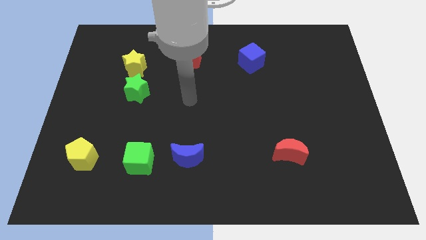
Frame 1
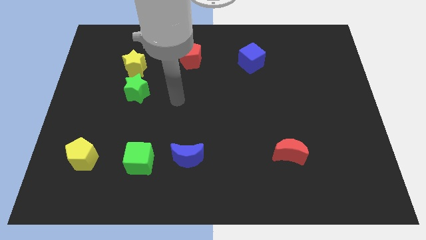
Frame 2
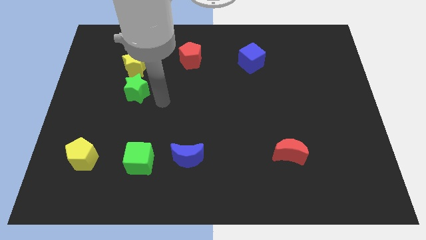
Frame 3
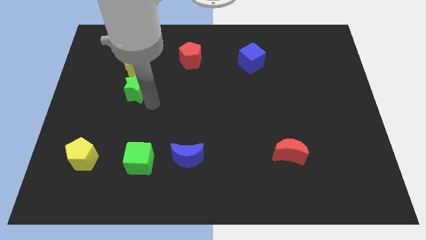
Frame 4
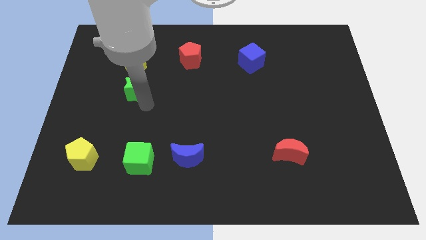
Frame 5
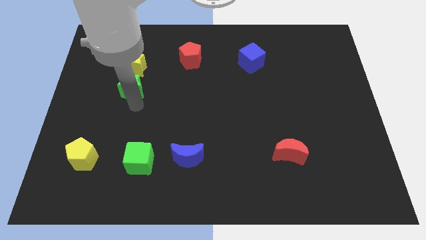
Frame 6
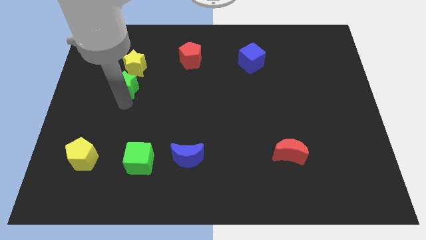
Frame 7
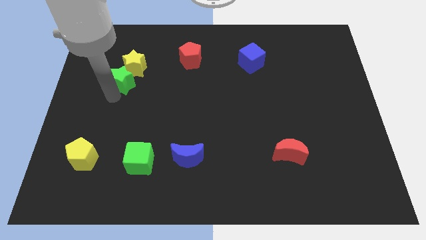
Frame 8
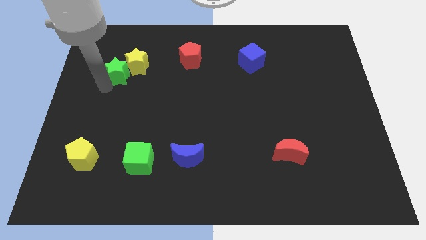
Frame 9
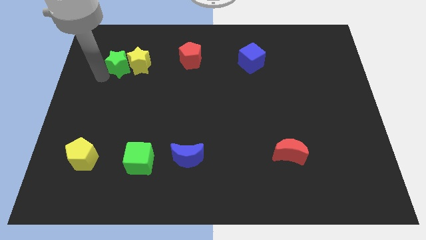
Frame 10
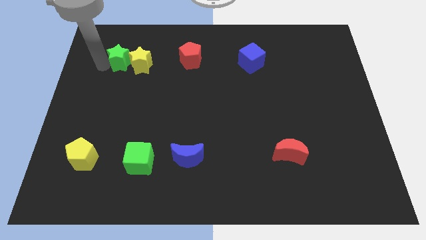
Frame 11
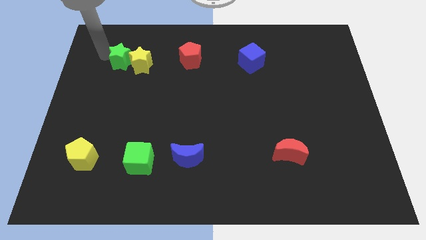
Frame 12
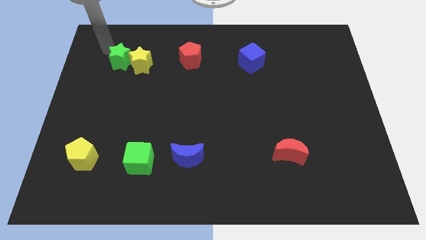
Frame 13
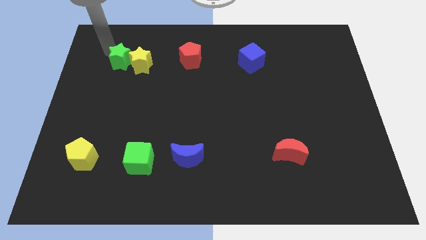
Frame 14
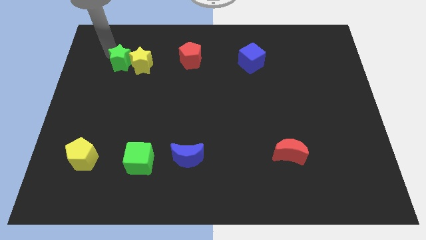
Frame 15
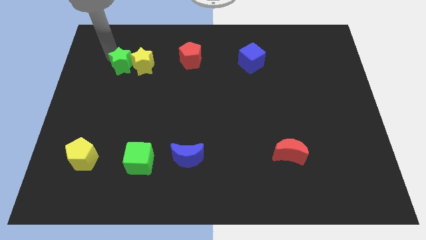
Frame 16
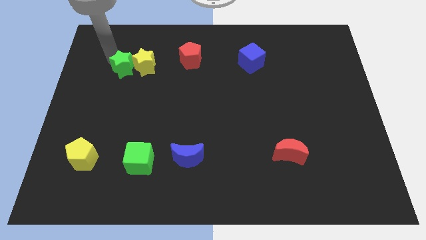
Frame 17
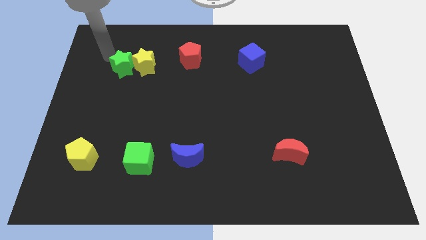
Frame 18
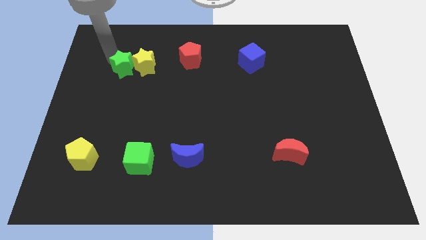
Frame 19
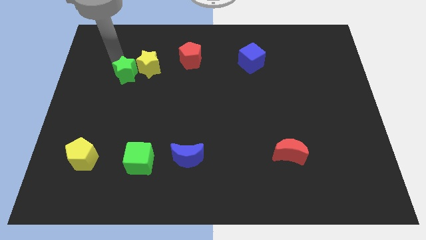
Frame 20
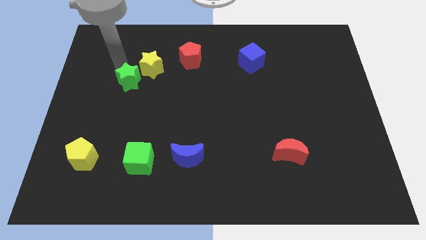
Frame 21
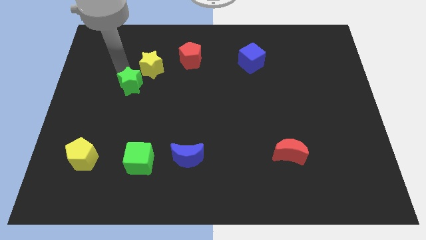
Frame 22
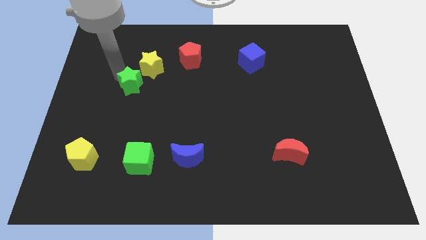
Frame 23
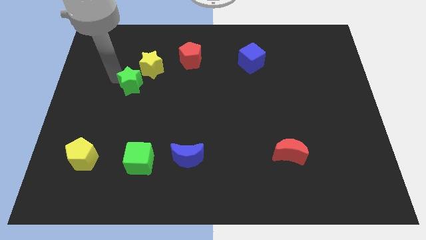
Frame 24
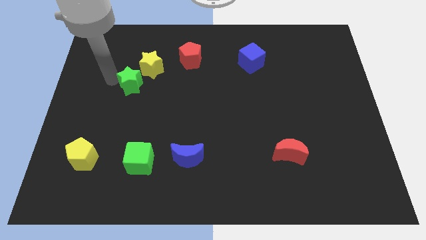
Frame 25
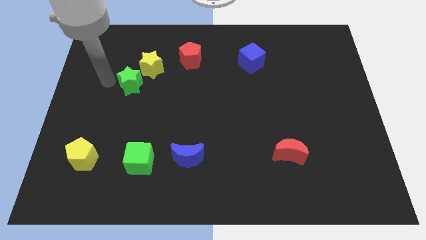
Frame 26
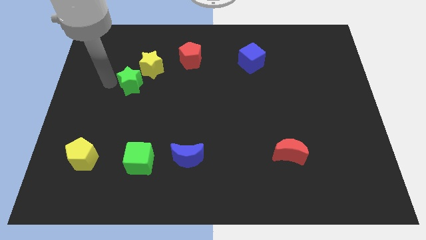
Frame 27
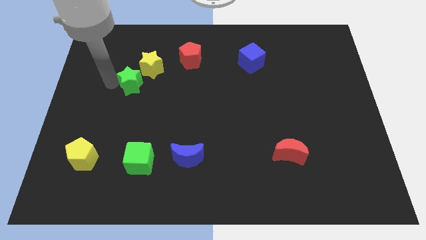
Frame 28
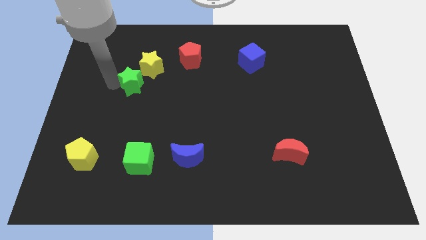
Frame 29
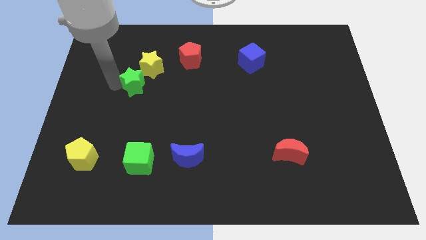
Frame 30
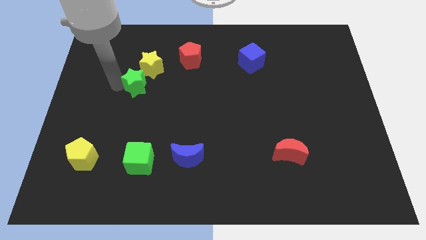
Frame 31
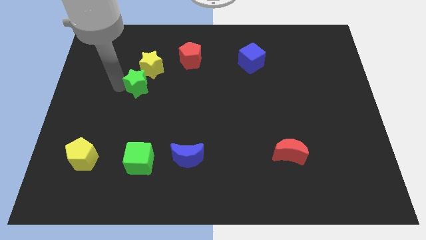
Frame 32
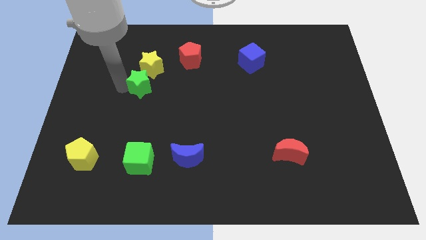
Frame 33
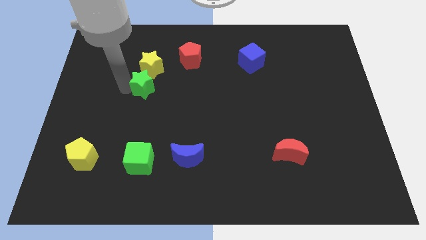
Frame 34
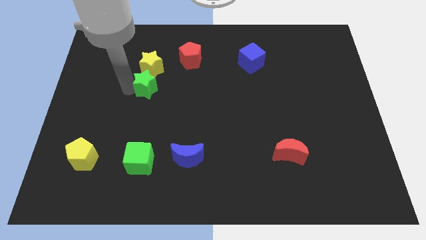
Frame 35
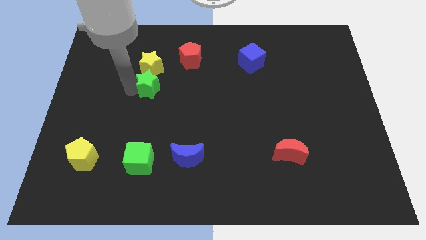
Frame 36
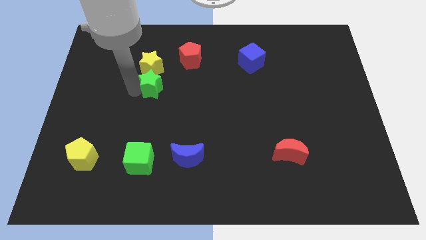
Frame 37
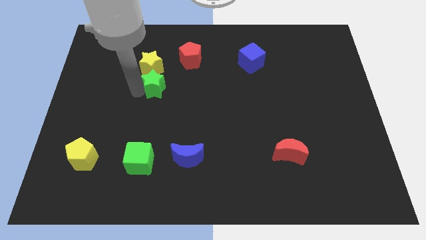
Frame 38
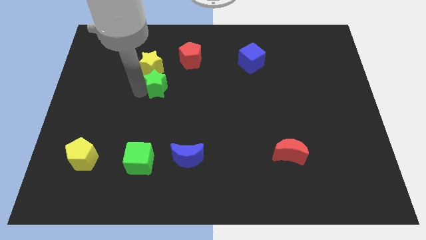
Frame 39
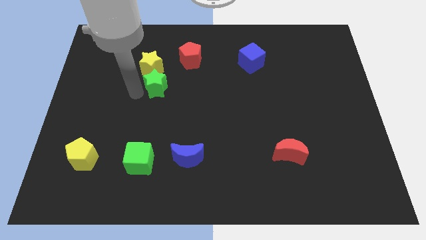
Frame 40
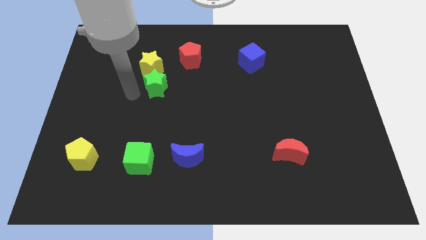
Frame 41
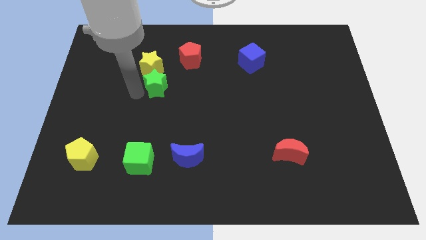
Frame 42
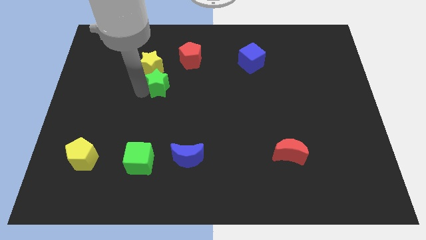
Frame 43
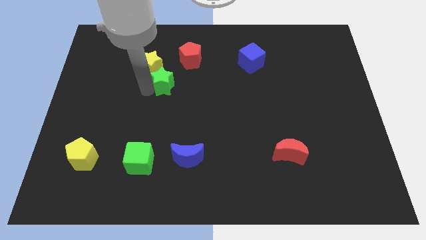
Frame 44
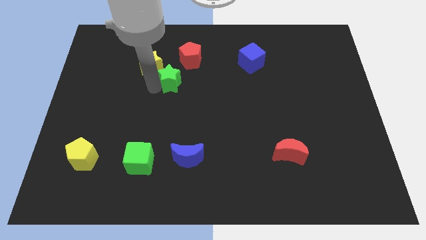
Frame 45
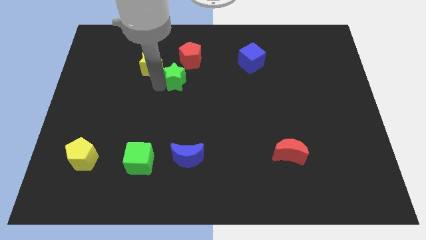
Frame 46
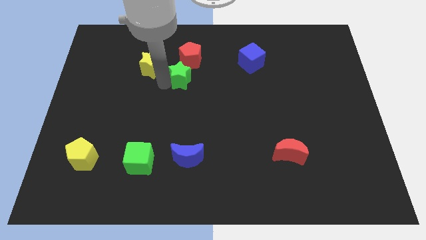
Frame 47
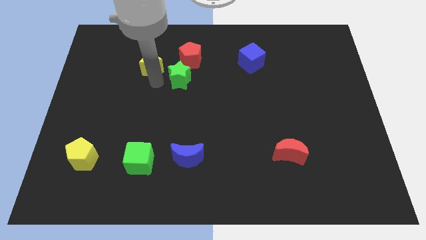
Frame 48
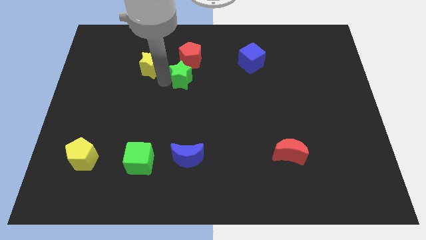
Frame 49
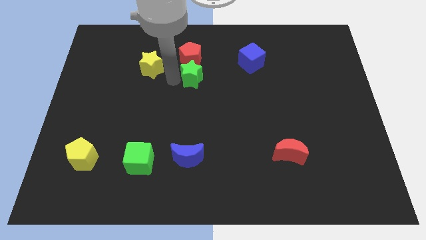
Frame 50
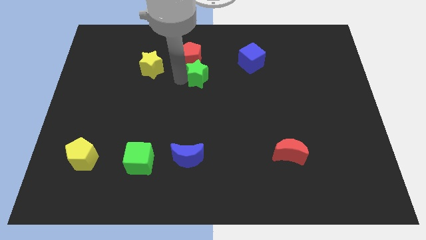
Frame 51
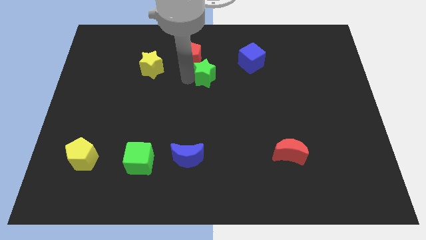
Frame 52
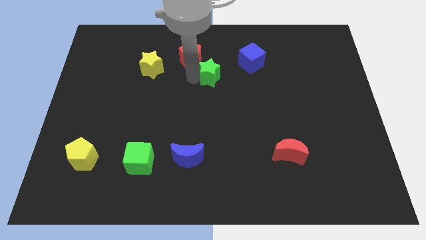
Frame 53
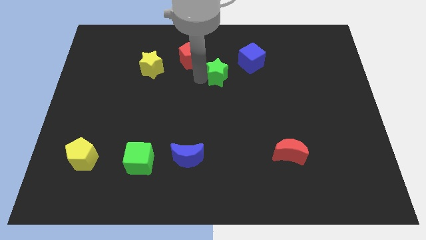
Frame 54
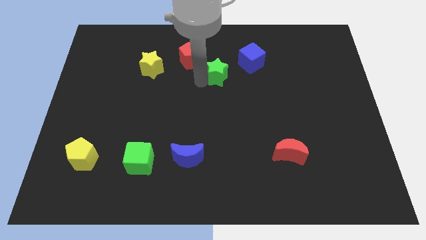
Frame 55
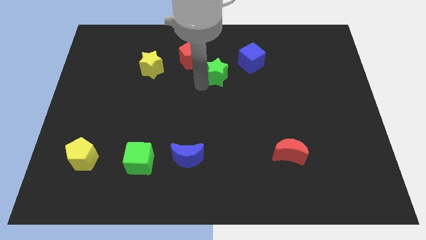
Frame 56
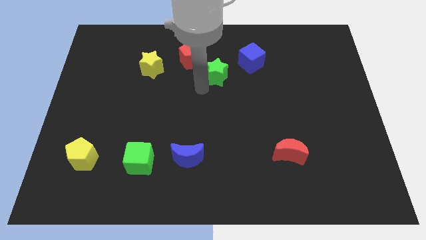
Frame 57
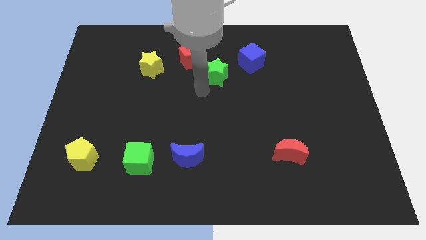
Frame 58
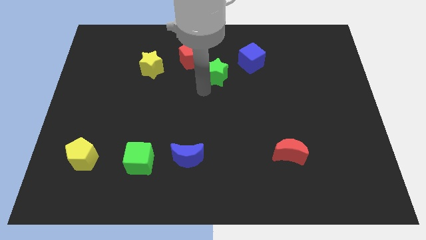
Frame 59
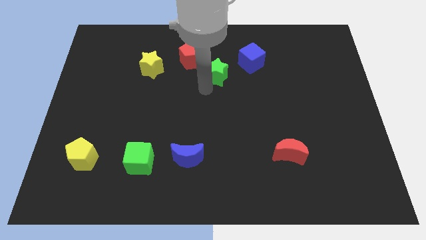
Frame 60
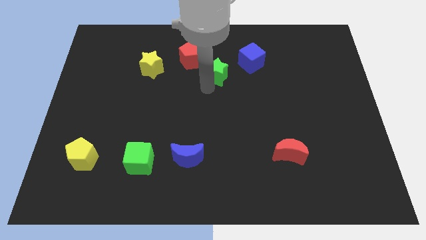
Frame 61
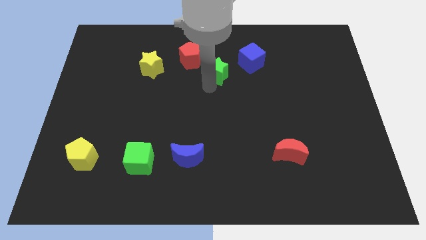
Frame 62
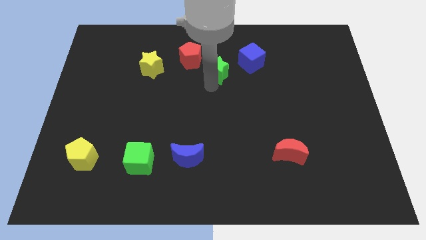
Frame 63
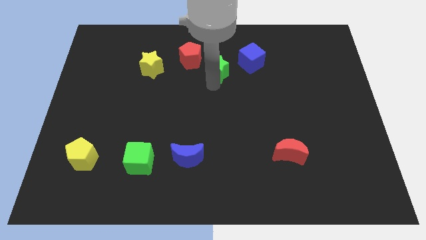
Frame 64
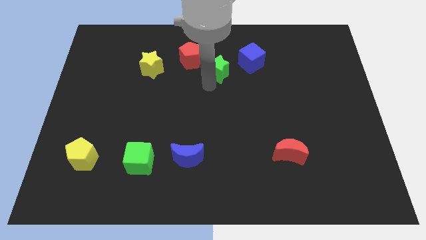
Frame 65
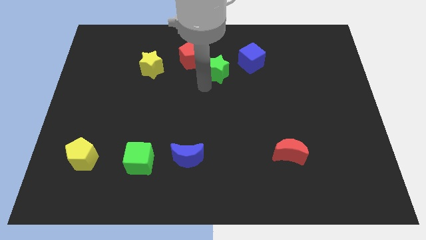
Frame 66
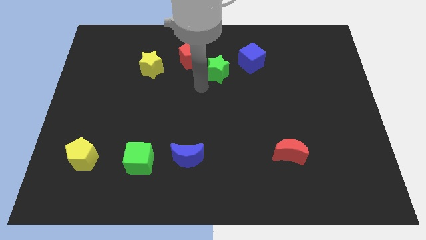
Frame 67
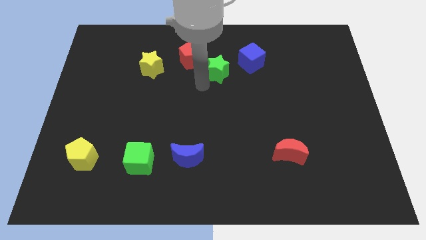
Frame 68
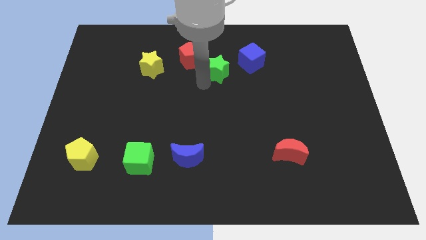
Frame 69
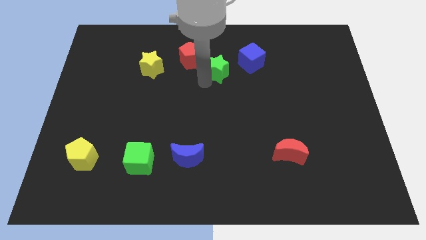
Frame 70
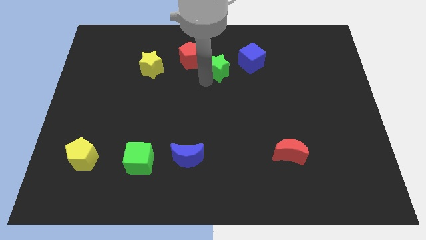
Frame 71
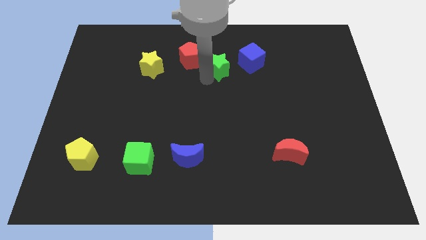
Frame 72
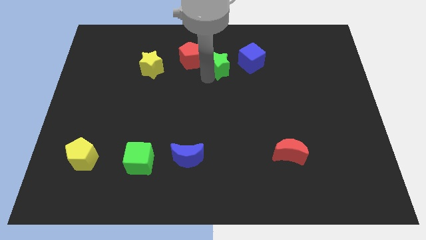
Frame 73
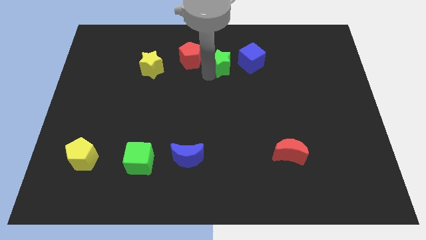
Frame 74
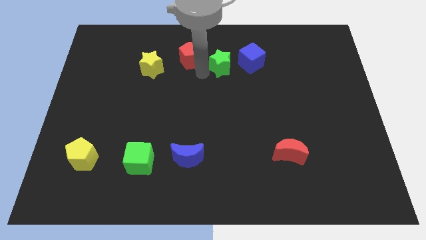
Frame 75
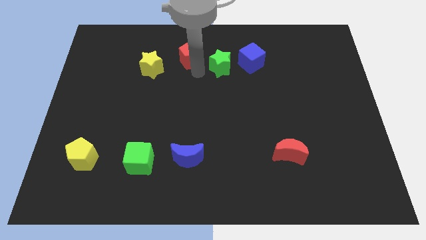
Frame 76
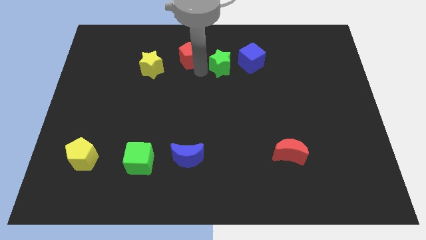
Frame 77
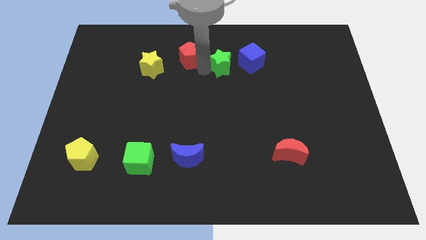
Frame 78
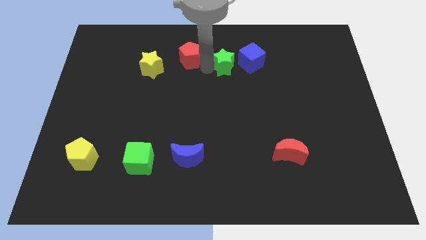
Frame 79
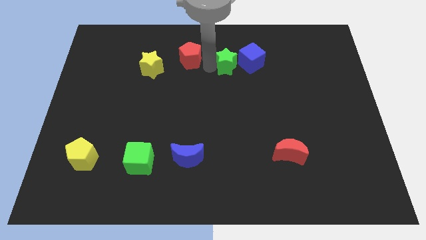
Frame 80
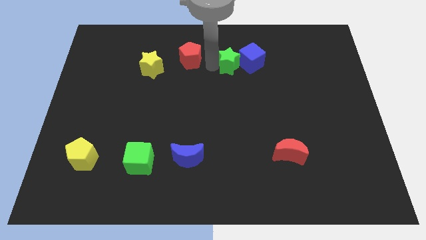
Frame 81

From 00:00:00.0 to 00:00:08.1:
put the green star to the blue cube
